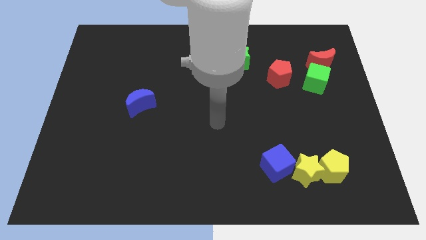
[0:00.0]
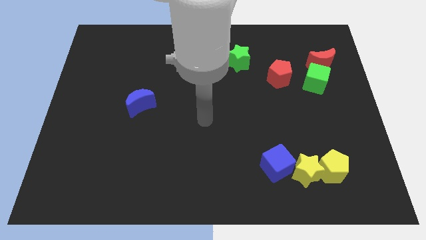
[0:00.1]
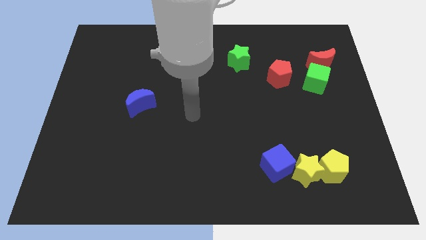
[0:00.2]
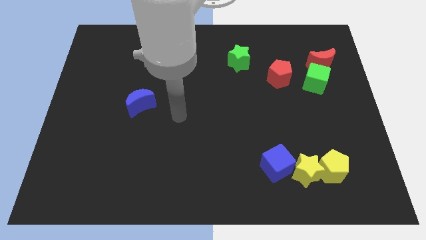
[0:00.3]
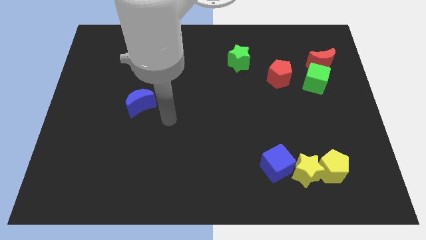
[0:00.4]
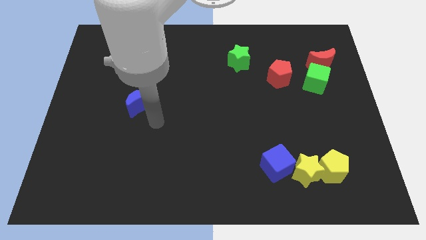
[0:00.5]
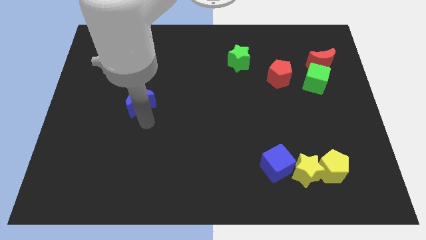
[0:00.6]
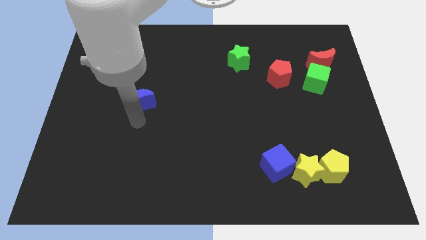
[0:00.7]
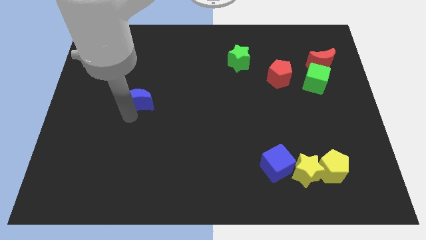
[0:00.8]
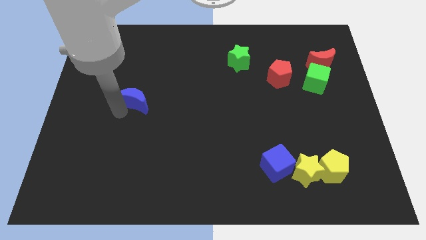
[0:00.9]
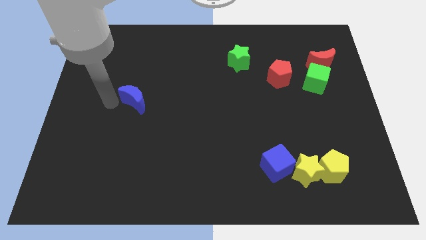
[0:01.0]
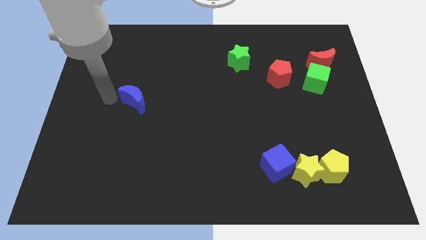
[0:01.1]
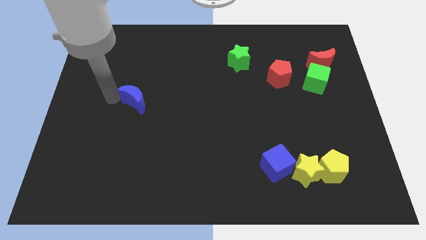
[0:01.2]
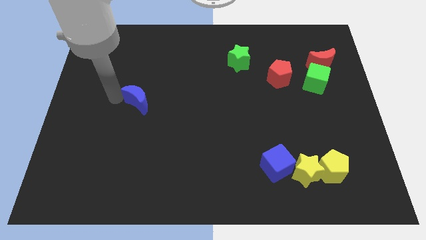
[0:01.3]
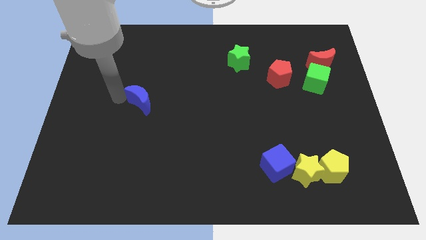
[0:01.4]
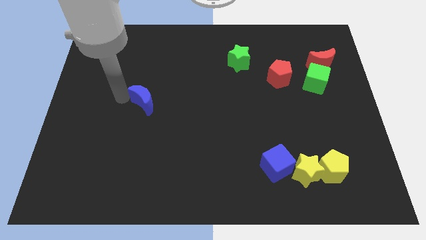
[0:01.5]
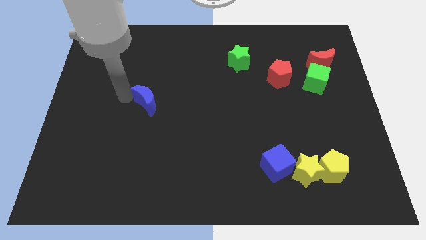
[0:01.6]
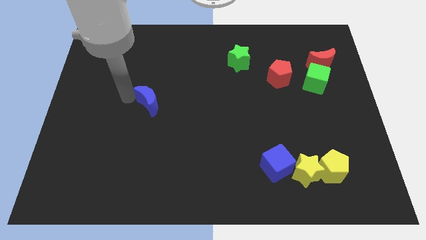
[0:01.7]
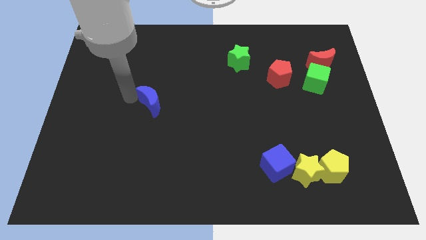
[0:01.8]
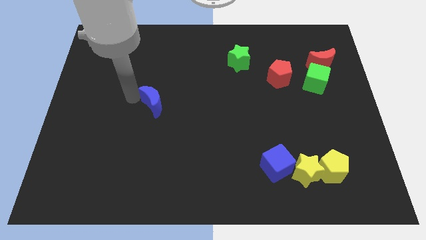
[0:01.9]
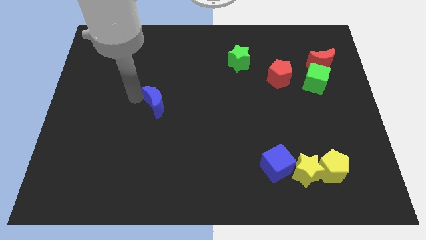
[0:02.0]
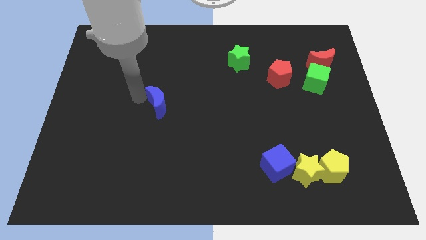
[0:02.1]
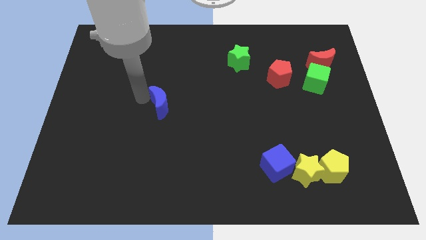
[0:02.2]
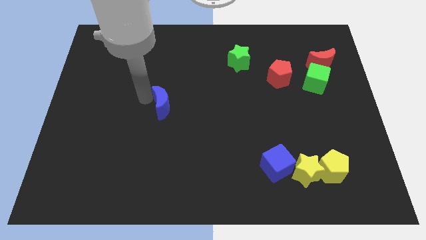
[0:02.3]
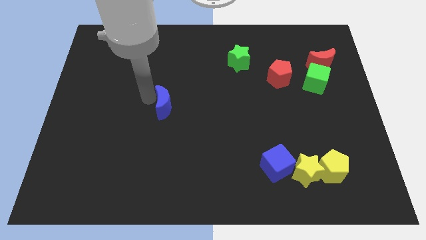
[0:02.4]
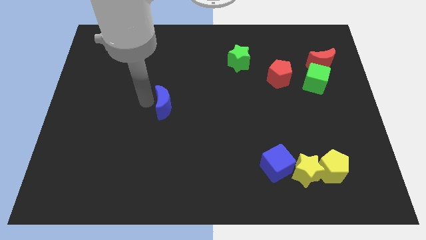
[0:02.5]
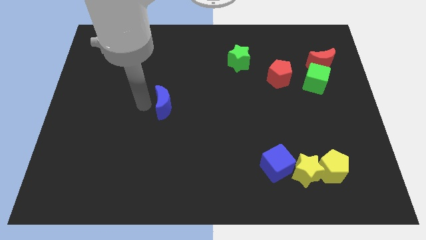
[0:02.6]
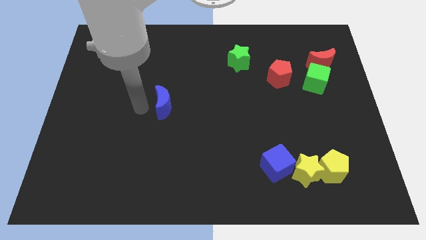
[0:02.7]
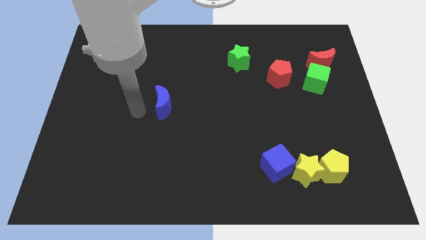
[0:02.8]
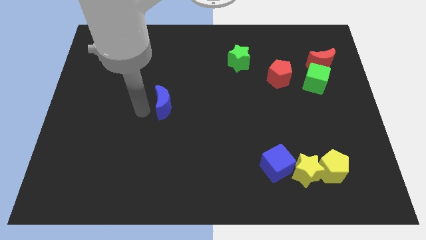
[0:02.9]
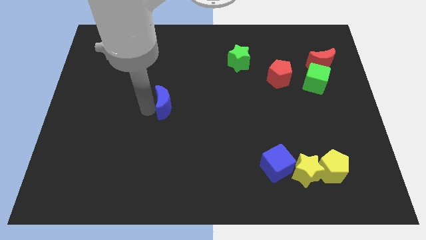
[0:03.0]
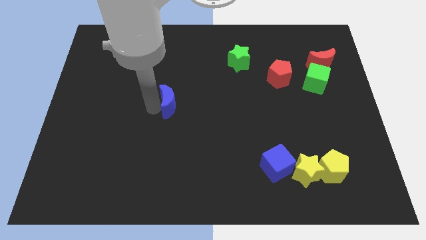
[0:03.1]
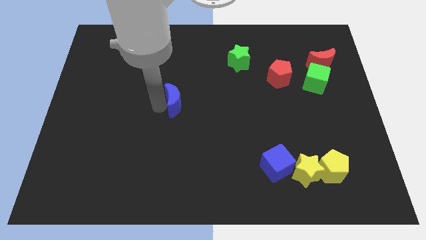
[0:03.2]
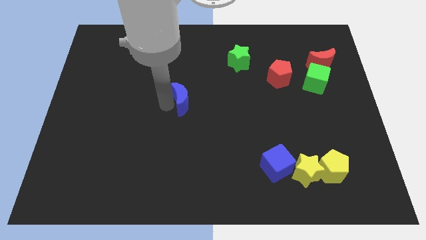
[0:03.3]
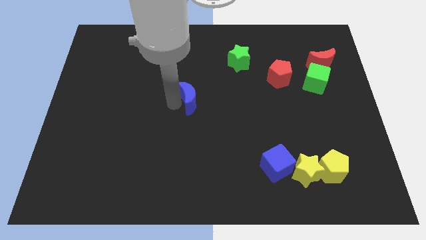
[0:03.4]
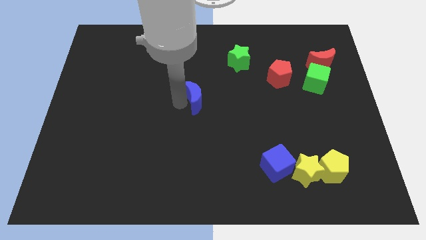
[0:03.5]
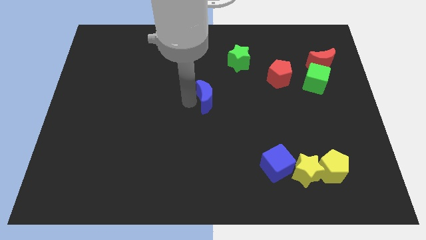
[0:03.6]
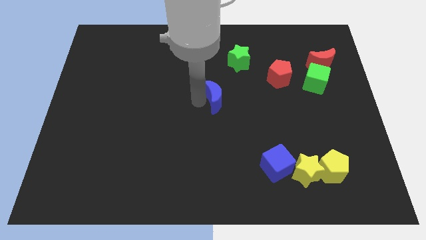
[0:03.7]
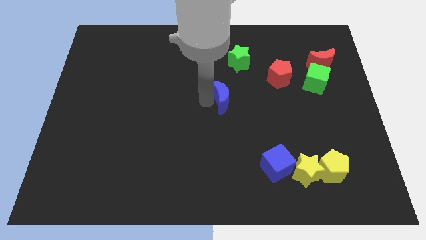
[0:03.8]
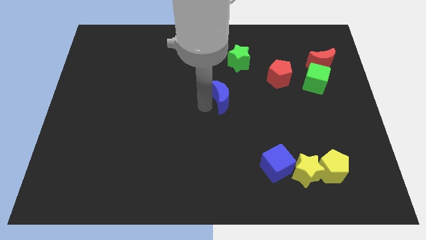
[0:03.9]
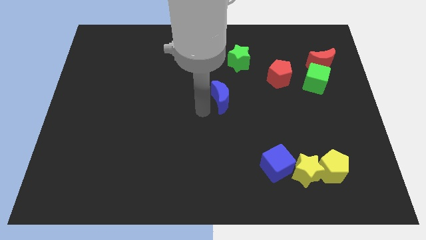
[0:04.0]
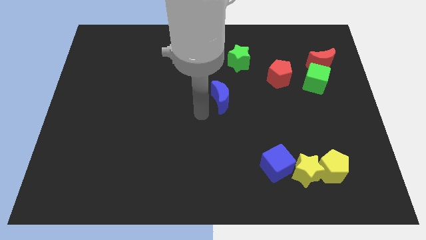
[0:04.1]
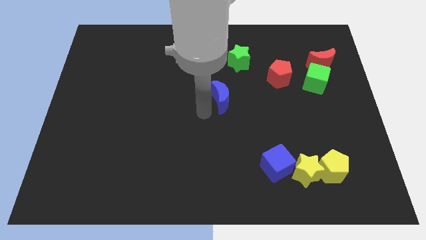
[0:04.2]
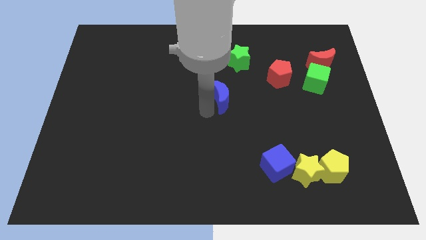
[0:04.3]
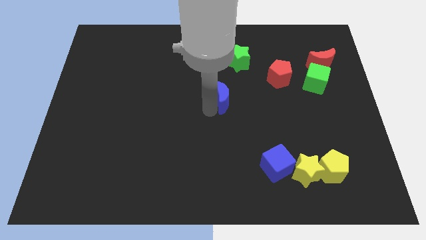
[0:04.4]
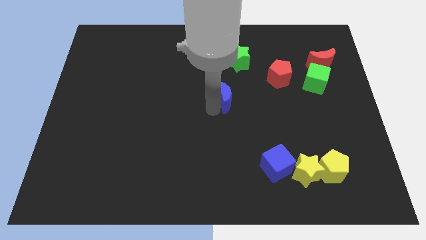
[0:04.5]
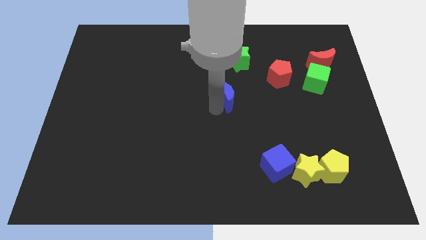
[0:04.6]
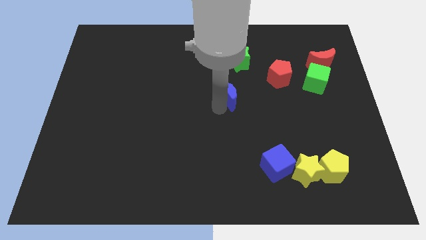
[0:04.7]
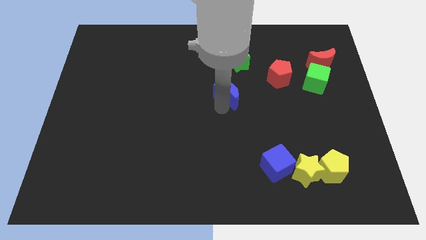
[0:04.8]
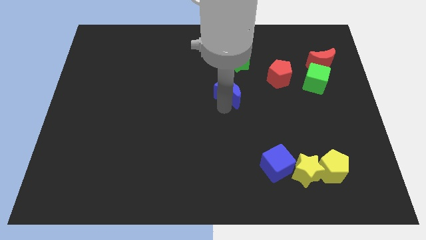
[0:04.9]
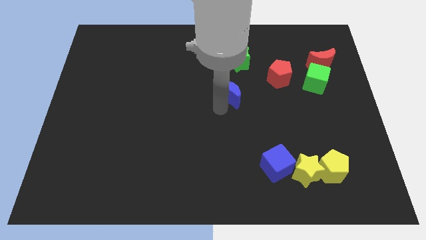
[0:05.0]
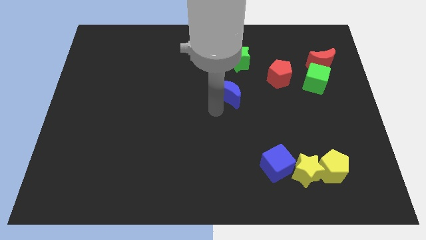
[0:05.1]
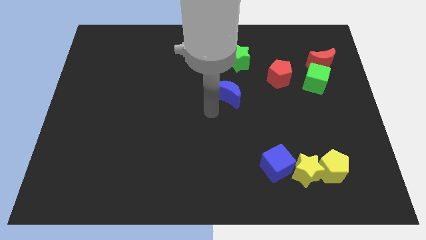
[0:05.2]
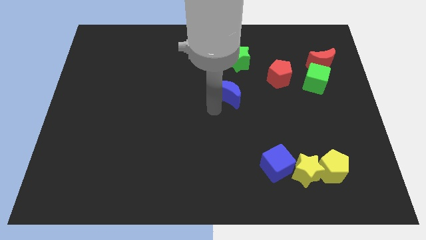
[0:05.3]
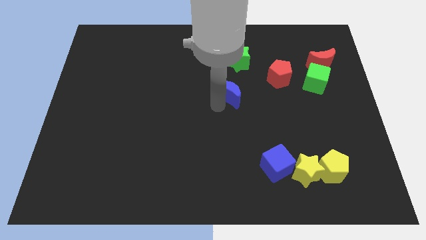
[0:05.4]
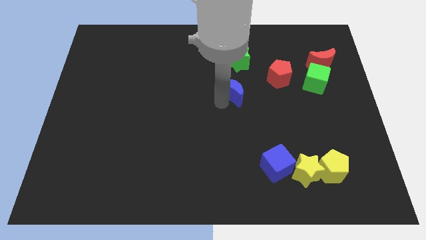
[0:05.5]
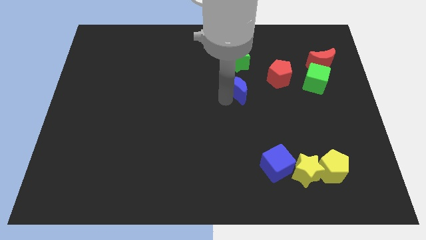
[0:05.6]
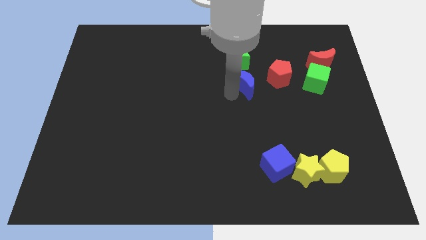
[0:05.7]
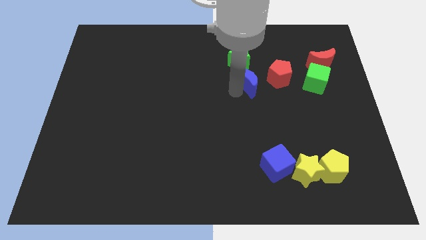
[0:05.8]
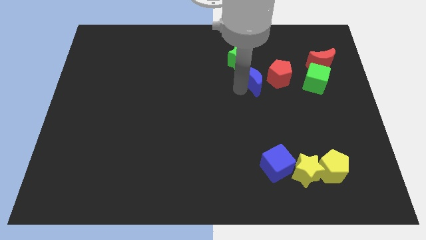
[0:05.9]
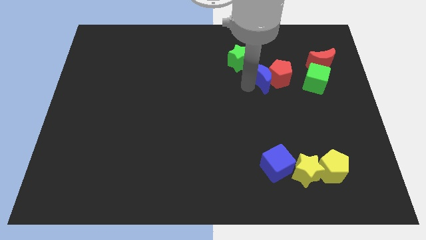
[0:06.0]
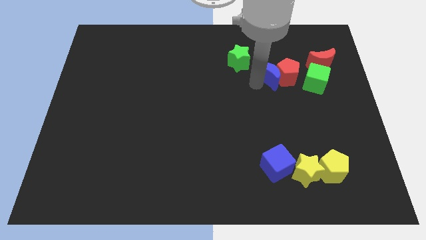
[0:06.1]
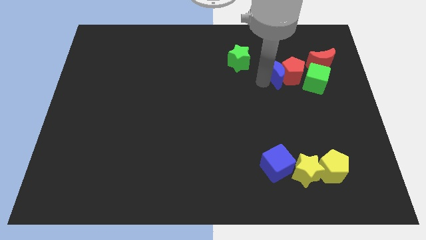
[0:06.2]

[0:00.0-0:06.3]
slide the blue moon to the right of the green star

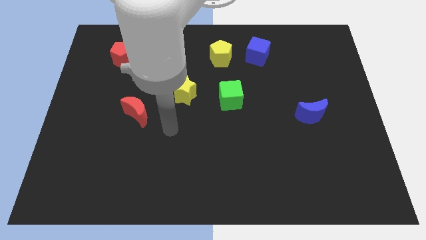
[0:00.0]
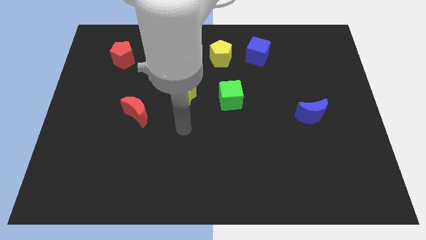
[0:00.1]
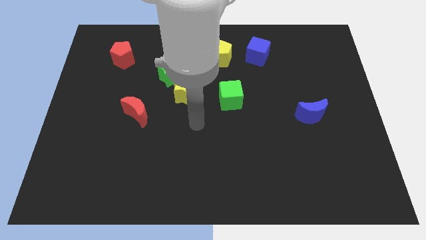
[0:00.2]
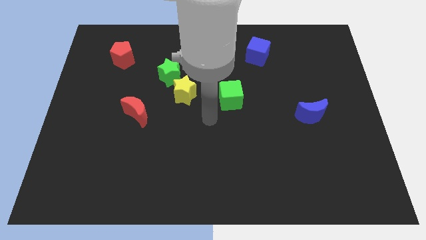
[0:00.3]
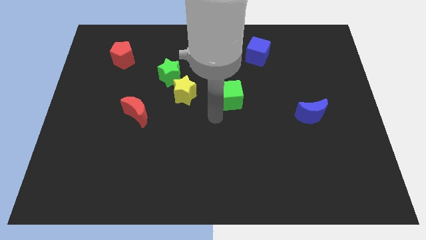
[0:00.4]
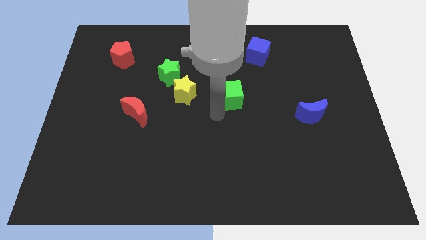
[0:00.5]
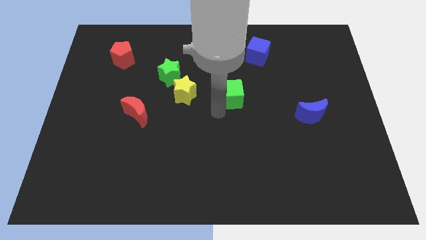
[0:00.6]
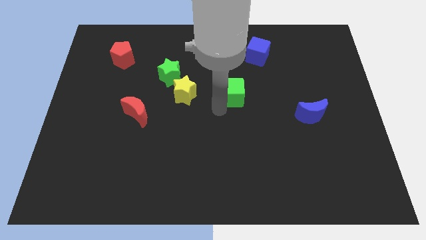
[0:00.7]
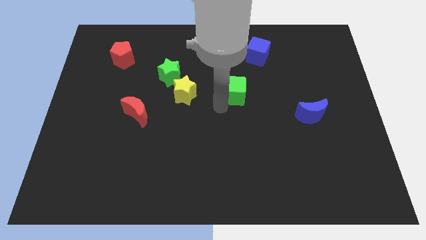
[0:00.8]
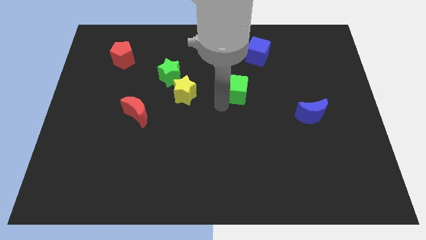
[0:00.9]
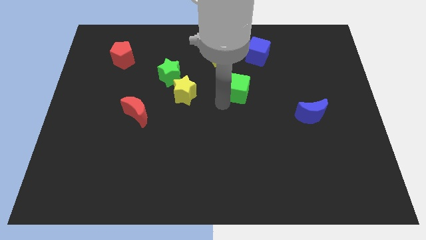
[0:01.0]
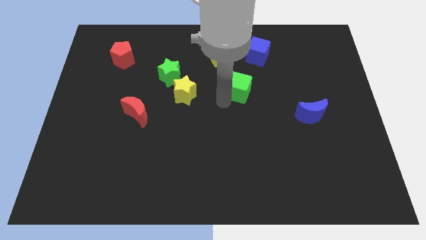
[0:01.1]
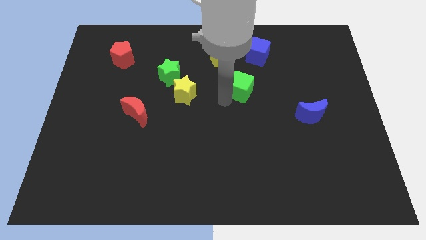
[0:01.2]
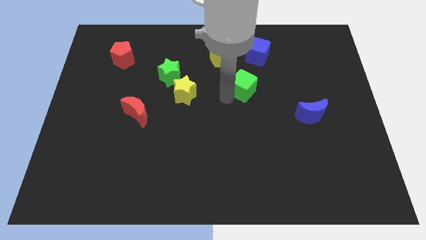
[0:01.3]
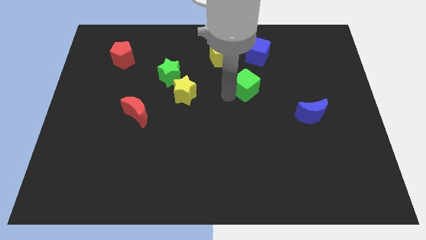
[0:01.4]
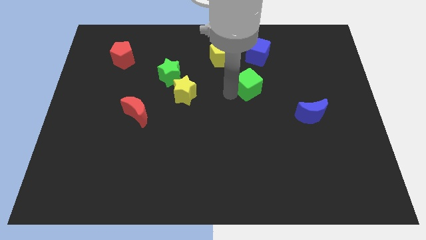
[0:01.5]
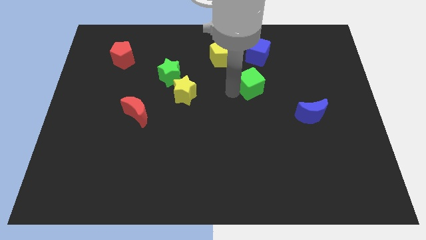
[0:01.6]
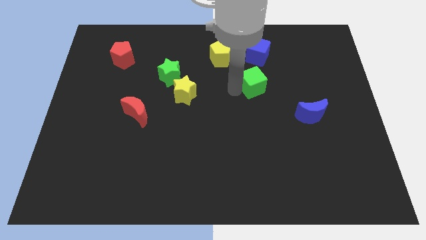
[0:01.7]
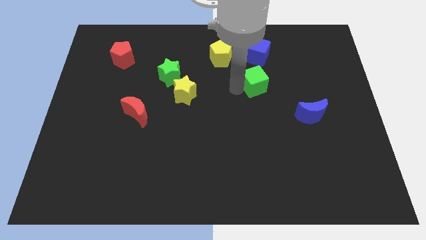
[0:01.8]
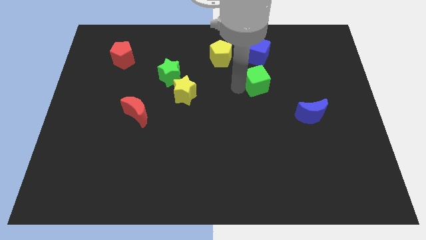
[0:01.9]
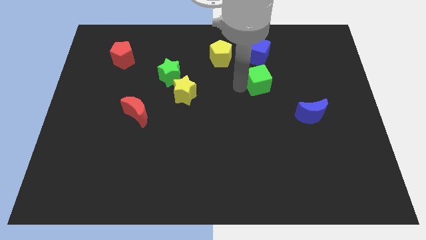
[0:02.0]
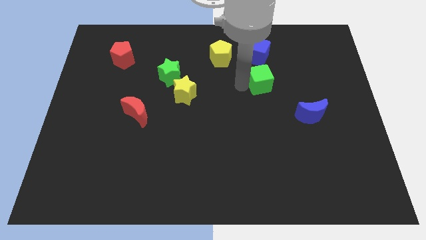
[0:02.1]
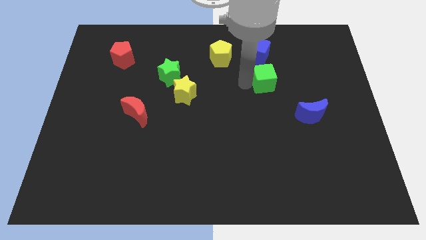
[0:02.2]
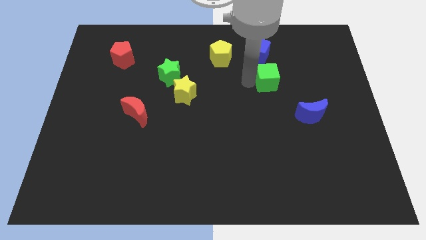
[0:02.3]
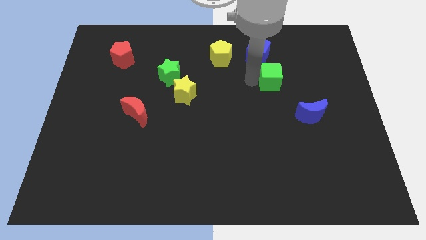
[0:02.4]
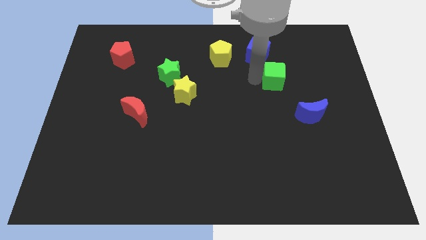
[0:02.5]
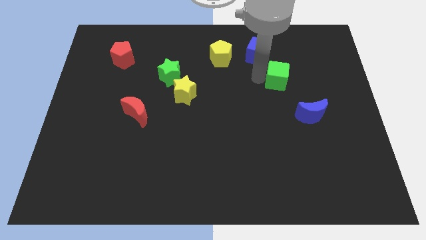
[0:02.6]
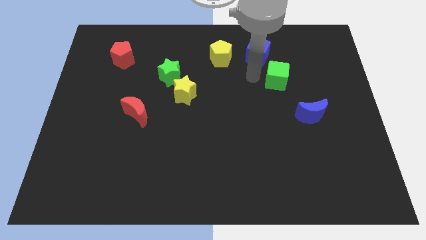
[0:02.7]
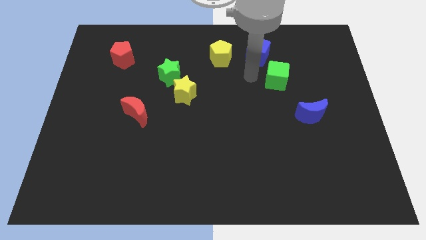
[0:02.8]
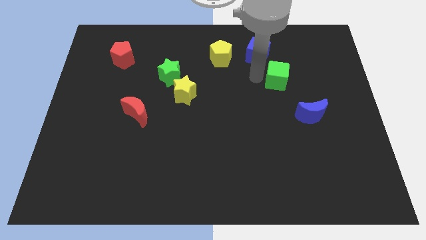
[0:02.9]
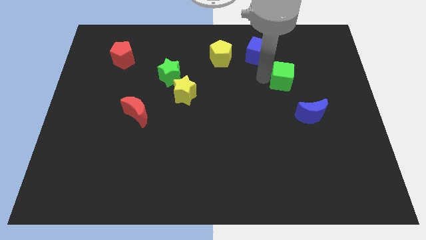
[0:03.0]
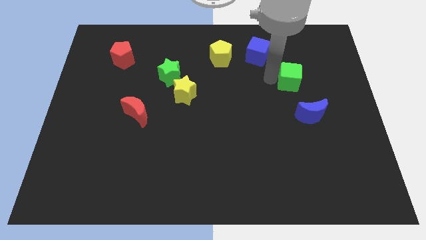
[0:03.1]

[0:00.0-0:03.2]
move the green cube to the top of the blue moon
